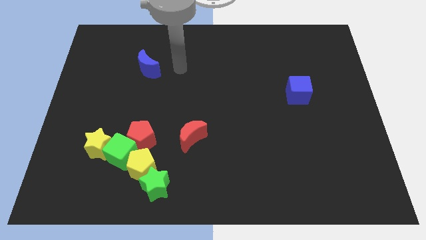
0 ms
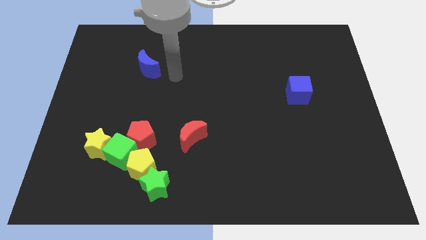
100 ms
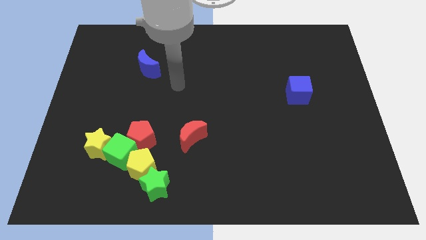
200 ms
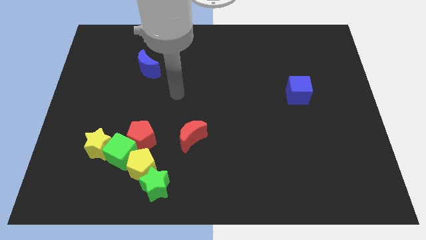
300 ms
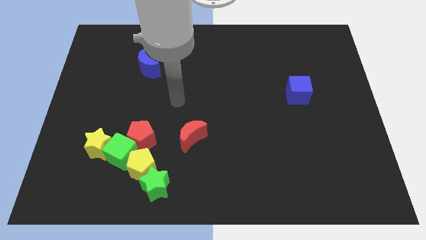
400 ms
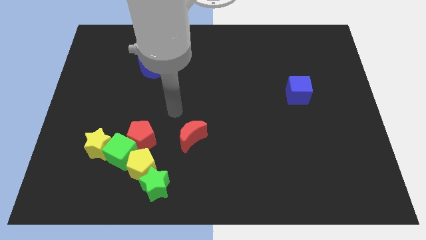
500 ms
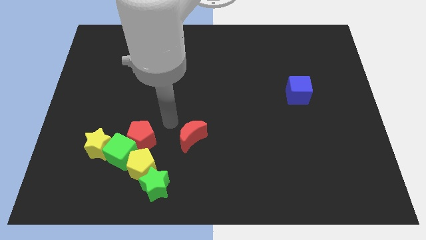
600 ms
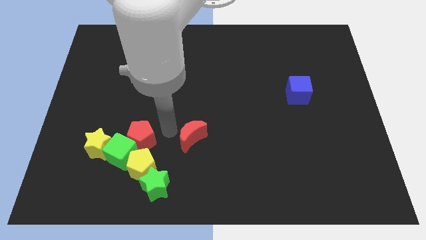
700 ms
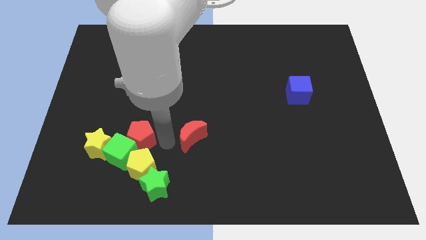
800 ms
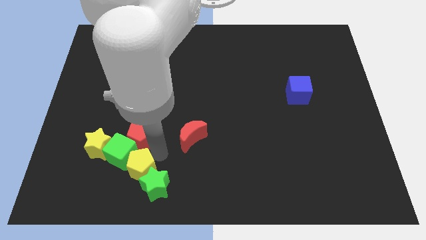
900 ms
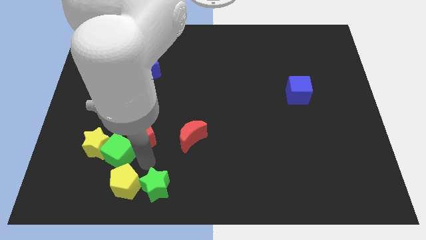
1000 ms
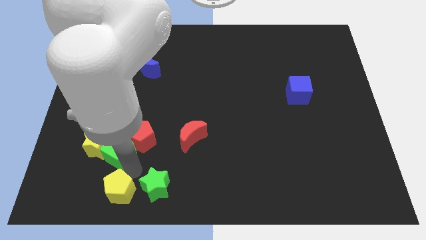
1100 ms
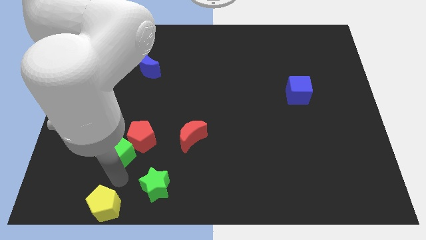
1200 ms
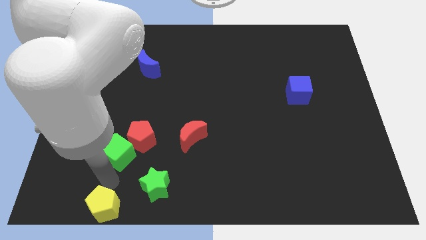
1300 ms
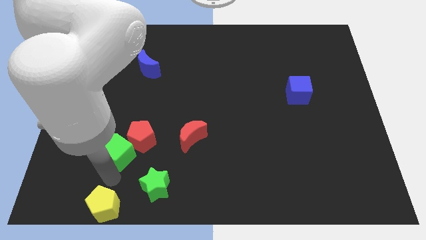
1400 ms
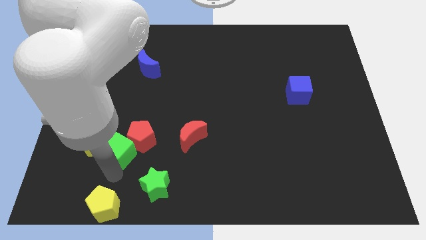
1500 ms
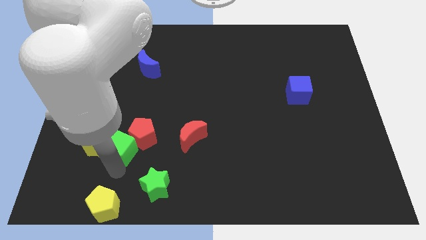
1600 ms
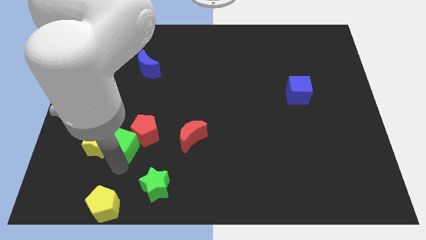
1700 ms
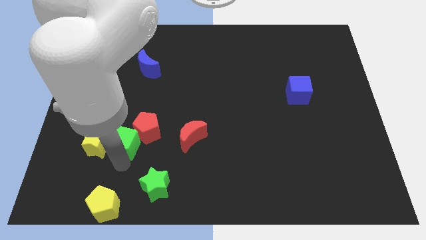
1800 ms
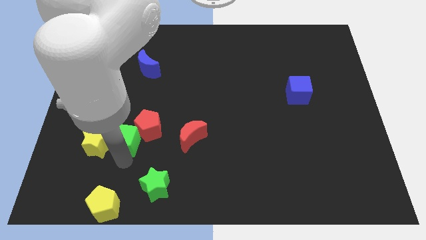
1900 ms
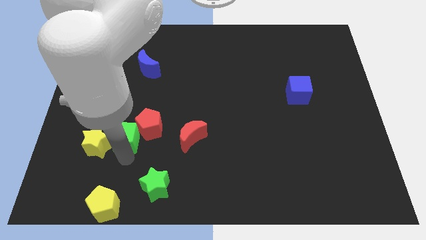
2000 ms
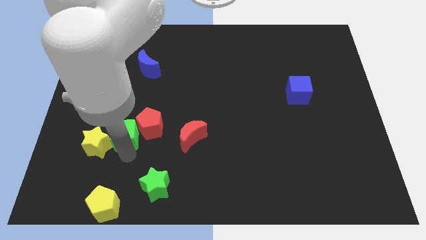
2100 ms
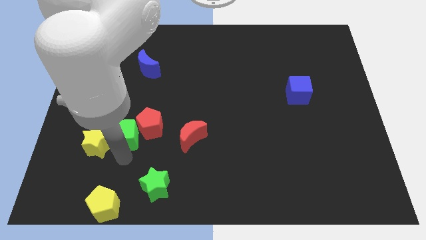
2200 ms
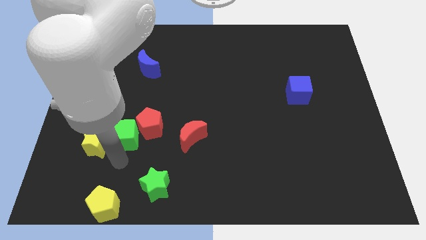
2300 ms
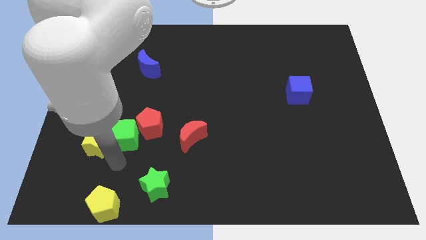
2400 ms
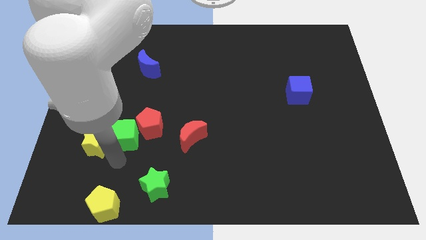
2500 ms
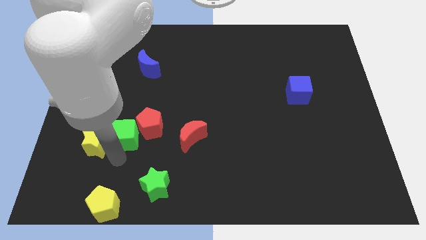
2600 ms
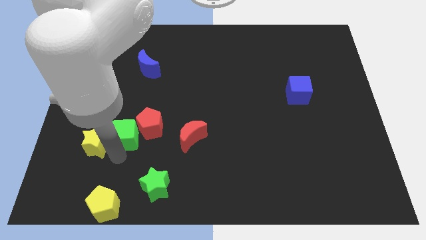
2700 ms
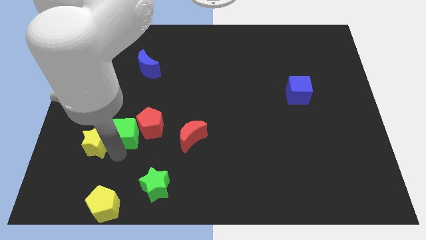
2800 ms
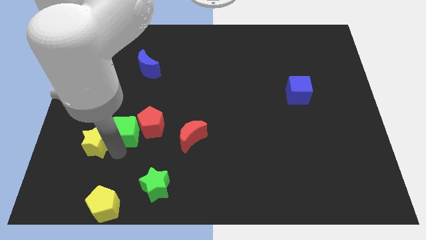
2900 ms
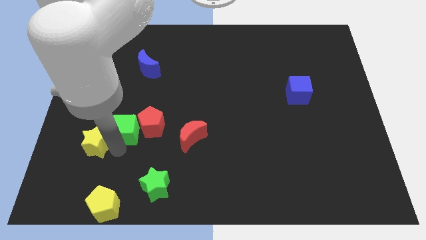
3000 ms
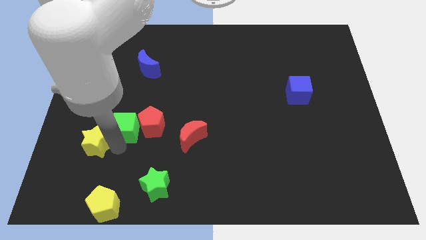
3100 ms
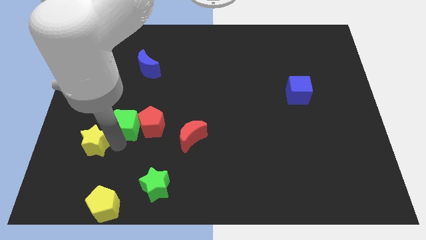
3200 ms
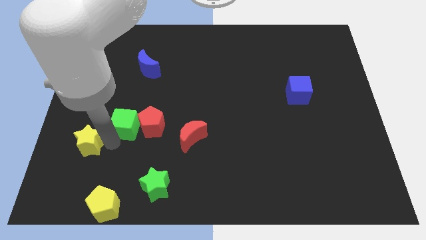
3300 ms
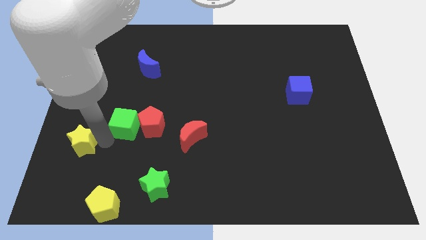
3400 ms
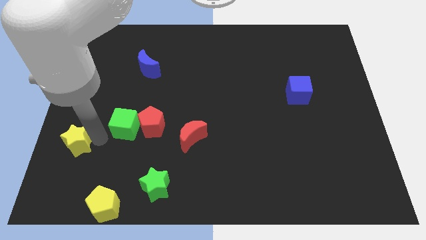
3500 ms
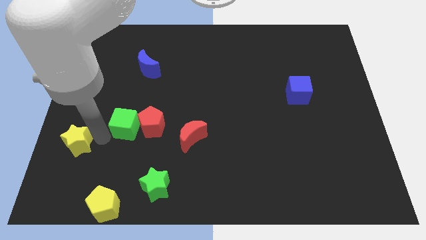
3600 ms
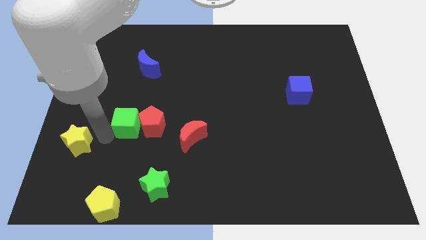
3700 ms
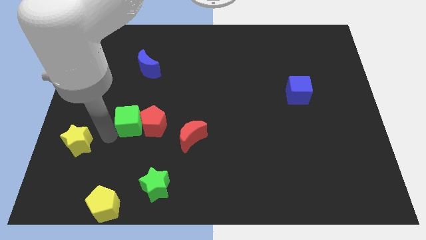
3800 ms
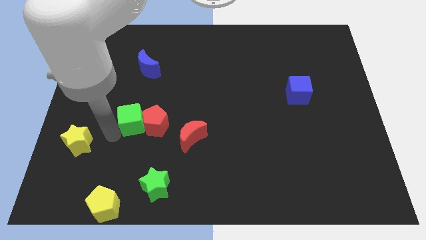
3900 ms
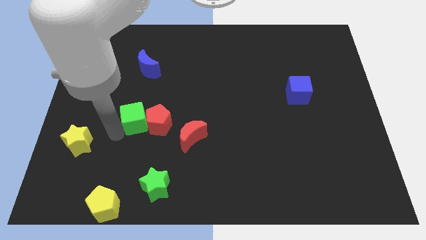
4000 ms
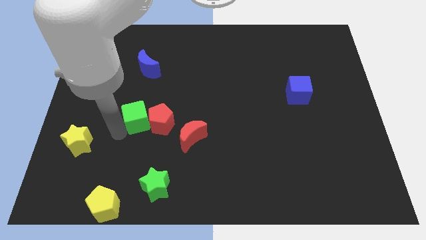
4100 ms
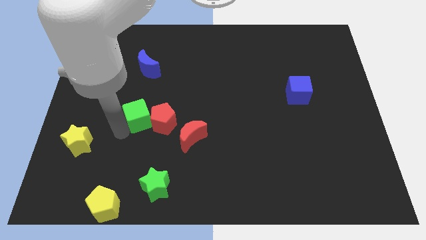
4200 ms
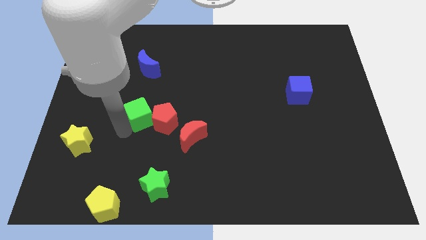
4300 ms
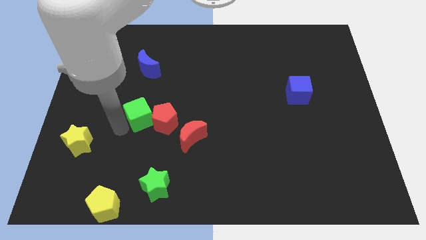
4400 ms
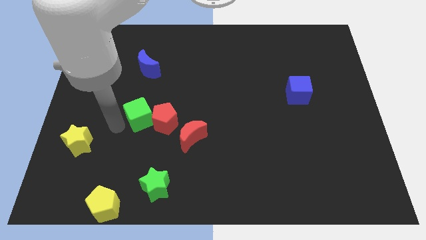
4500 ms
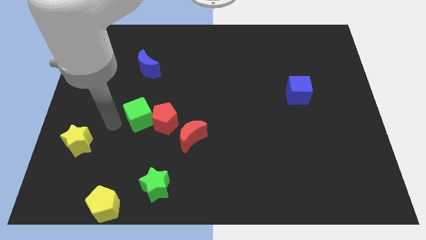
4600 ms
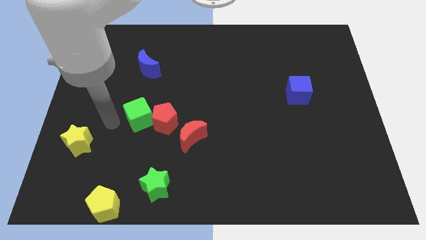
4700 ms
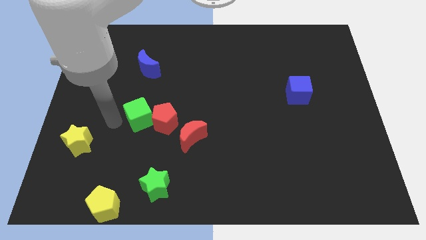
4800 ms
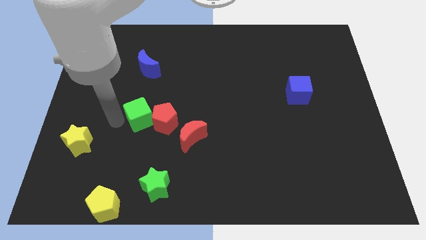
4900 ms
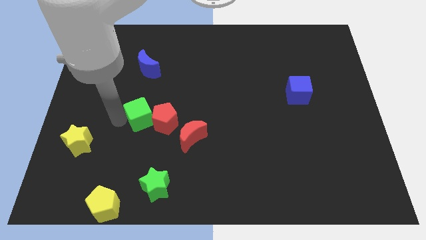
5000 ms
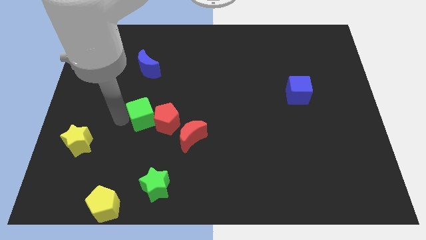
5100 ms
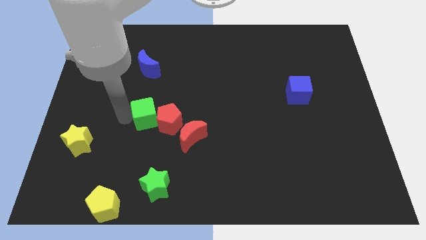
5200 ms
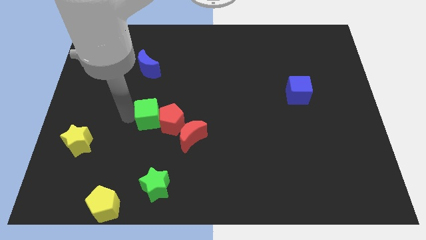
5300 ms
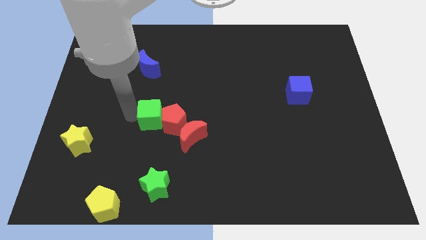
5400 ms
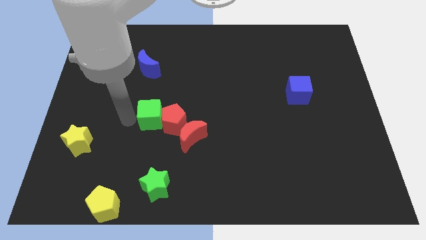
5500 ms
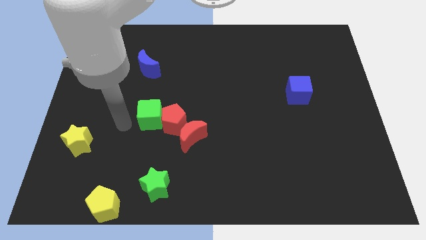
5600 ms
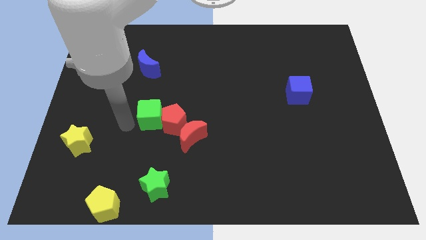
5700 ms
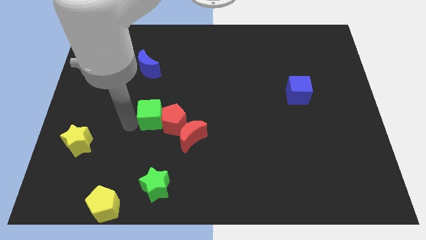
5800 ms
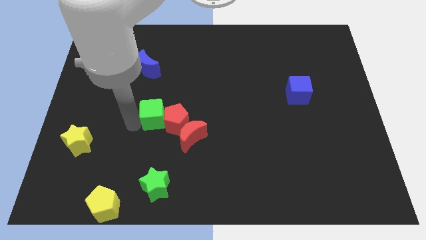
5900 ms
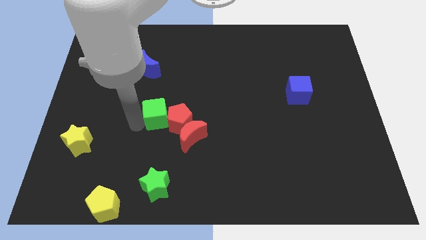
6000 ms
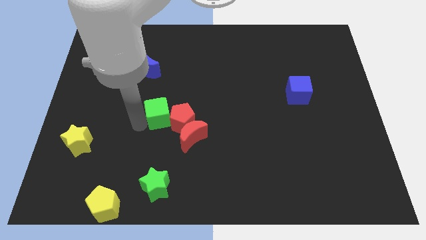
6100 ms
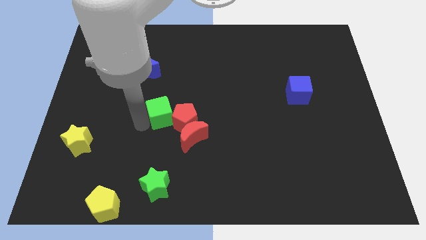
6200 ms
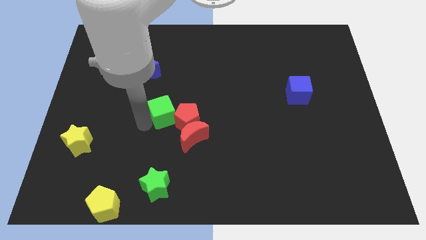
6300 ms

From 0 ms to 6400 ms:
slide the green cube to the middle
